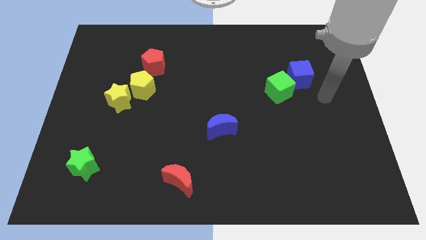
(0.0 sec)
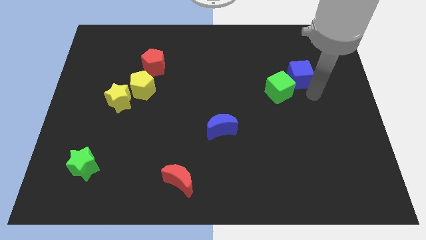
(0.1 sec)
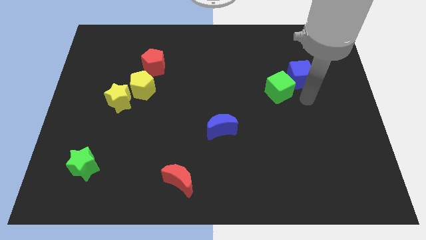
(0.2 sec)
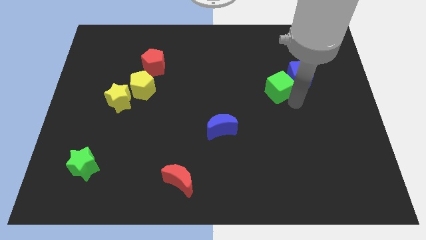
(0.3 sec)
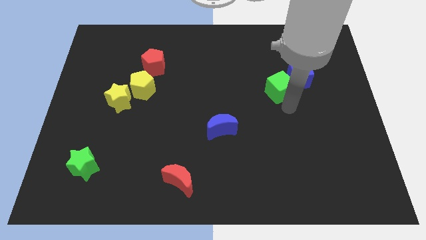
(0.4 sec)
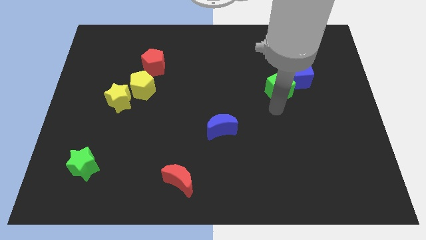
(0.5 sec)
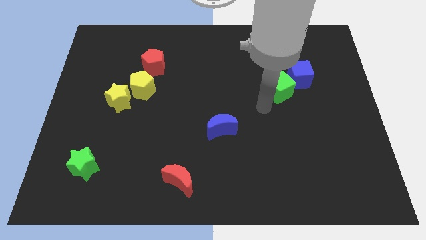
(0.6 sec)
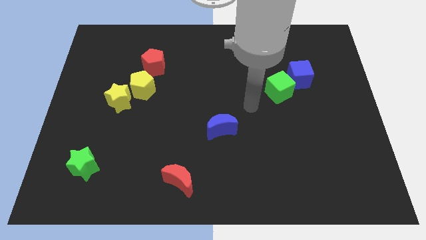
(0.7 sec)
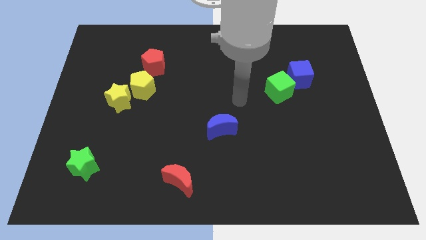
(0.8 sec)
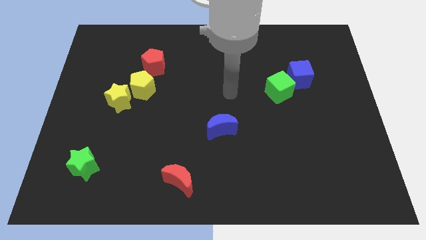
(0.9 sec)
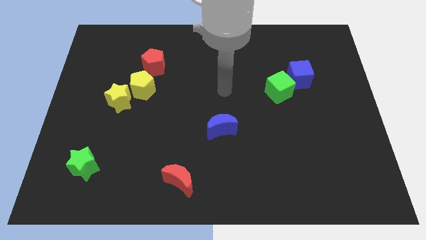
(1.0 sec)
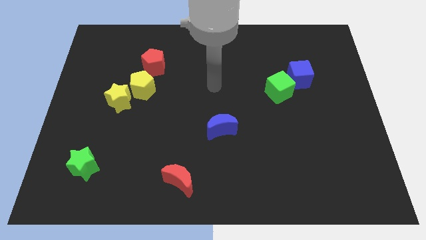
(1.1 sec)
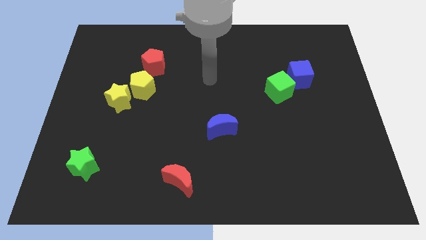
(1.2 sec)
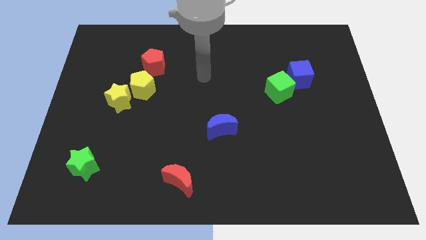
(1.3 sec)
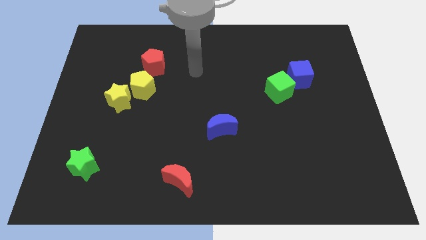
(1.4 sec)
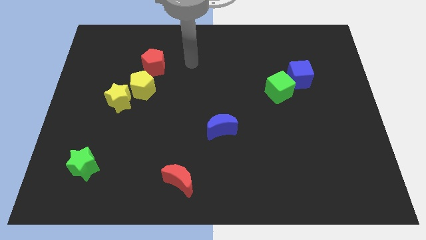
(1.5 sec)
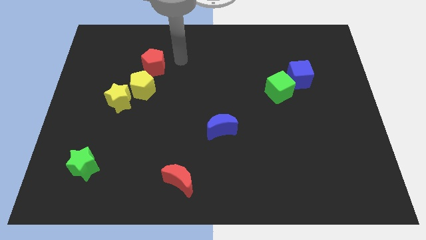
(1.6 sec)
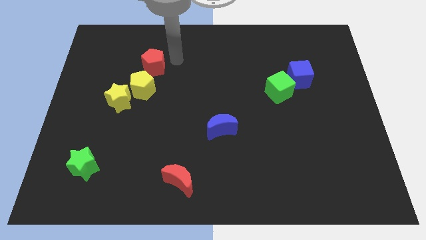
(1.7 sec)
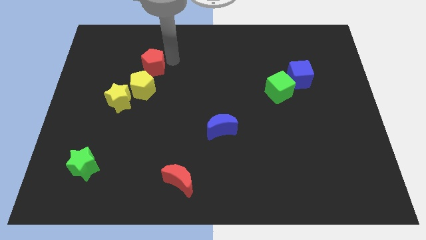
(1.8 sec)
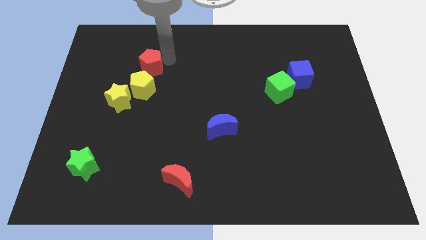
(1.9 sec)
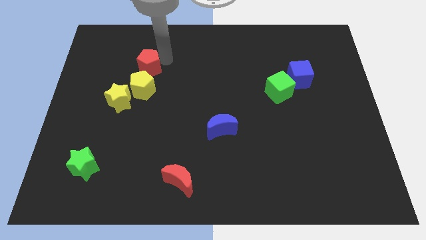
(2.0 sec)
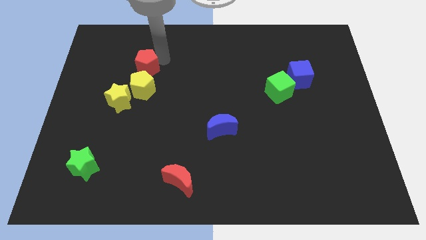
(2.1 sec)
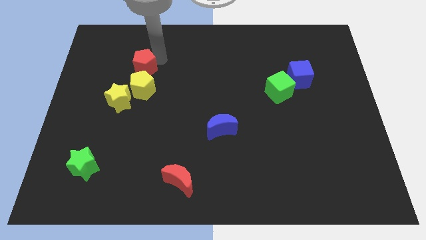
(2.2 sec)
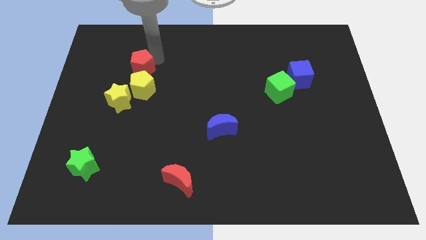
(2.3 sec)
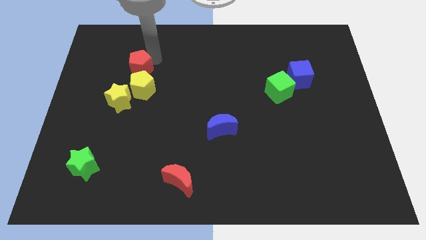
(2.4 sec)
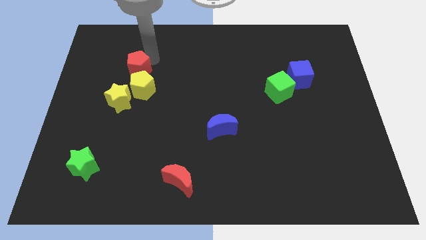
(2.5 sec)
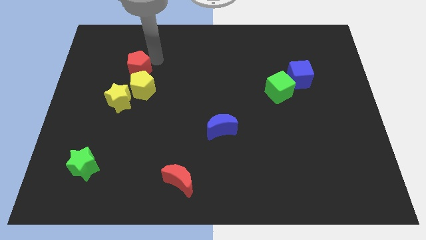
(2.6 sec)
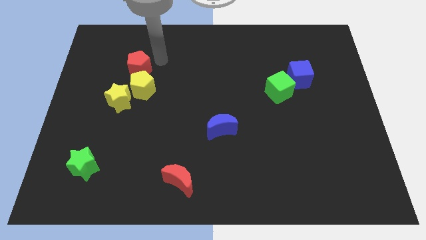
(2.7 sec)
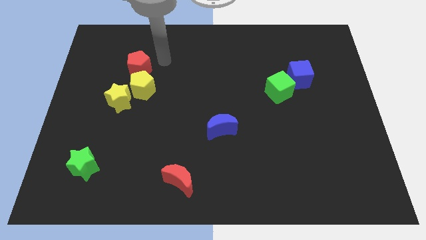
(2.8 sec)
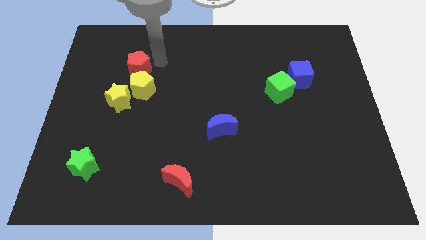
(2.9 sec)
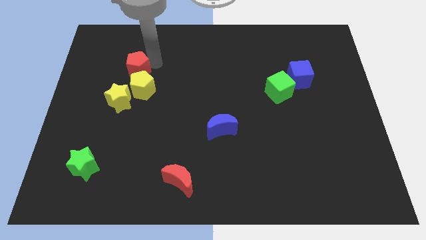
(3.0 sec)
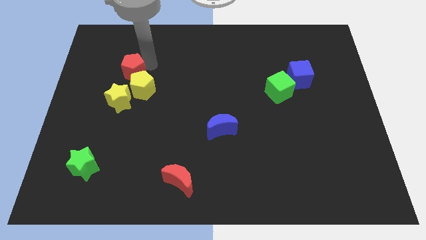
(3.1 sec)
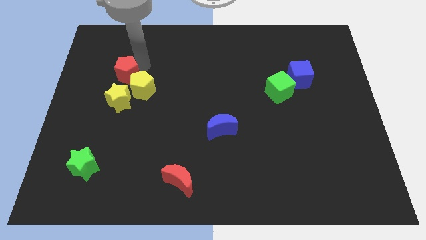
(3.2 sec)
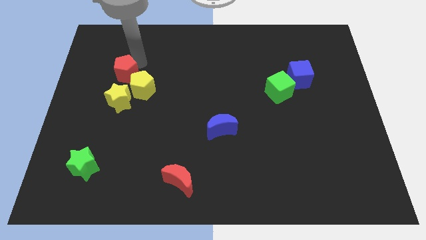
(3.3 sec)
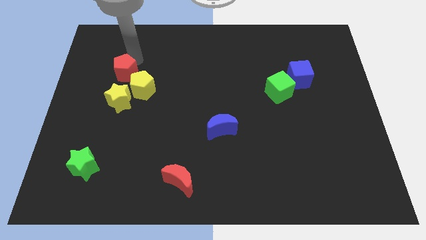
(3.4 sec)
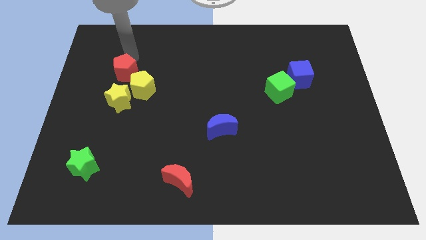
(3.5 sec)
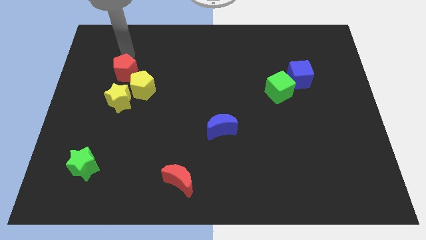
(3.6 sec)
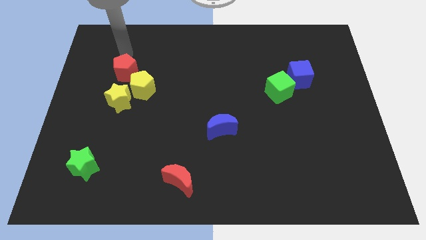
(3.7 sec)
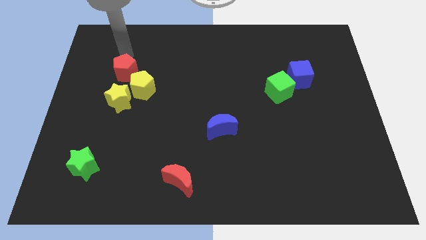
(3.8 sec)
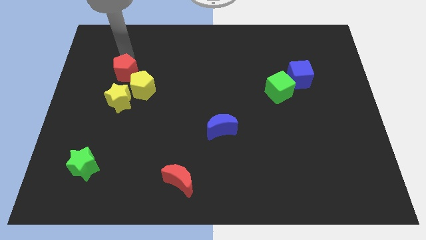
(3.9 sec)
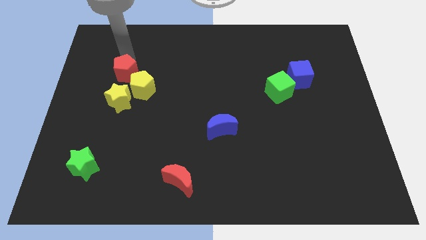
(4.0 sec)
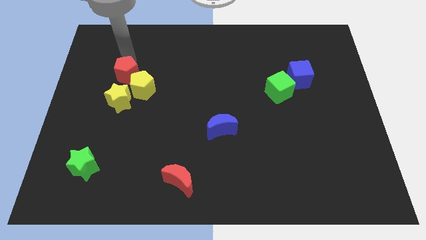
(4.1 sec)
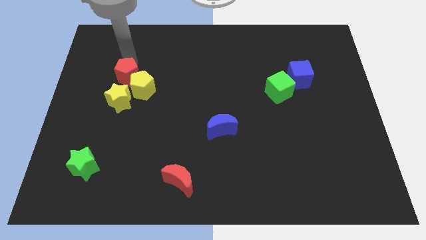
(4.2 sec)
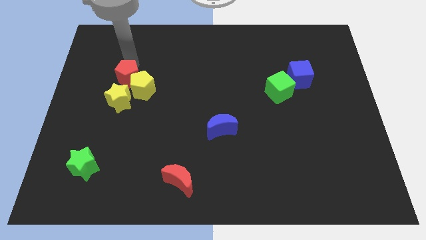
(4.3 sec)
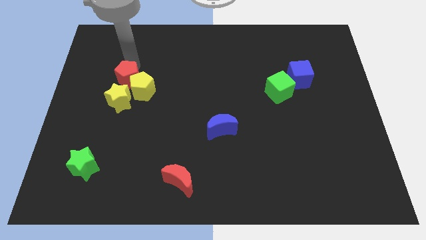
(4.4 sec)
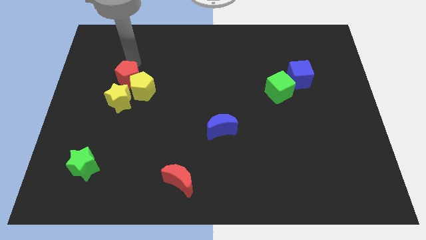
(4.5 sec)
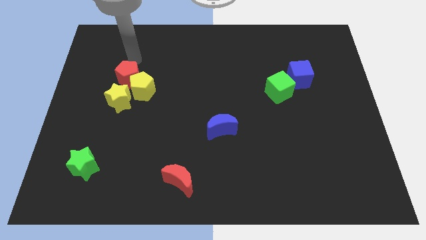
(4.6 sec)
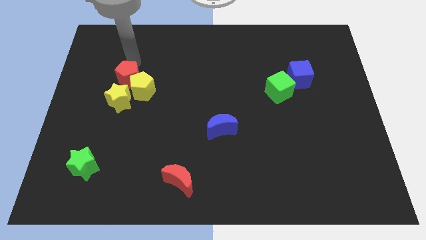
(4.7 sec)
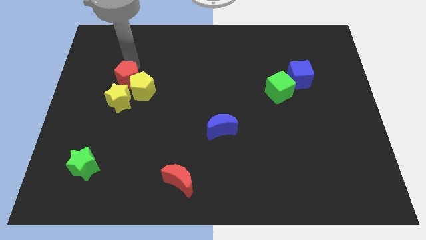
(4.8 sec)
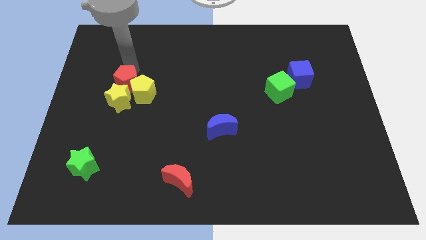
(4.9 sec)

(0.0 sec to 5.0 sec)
move the red pentagon close to the yellow star

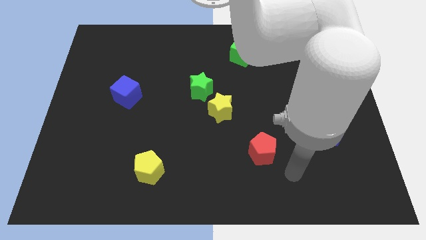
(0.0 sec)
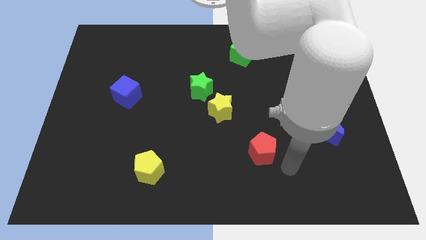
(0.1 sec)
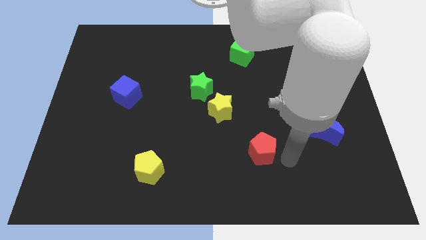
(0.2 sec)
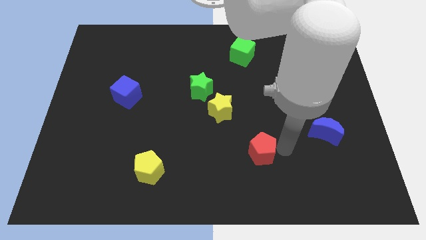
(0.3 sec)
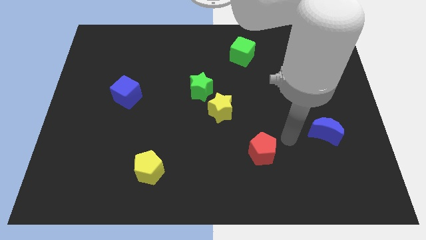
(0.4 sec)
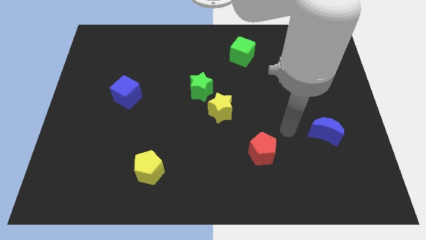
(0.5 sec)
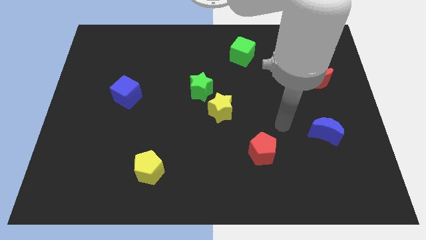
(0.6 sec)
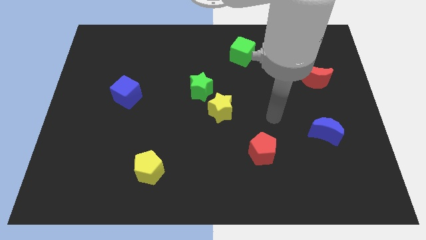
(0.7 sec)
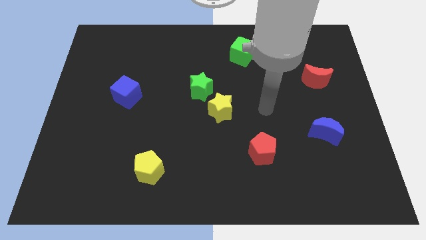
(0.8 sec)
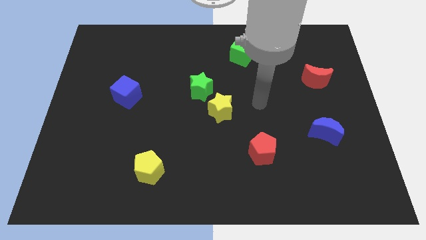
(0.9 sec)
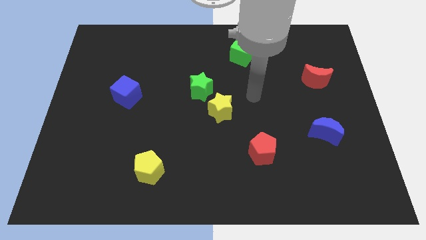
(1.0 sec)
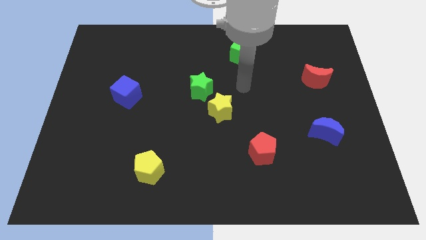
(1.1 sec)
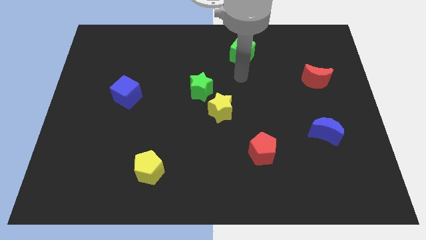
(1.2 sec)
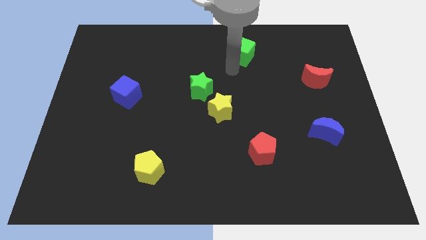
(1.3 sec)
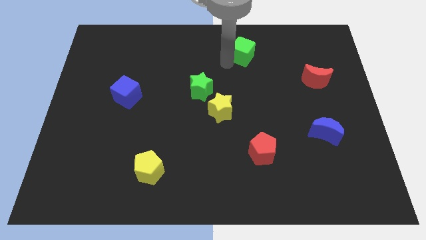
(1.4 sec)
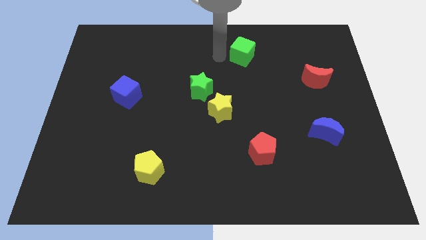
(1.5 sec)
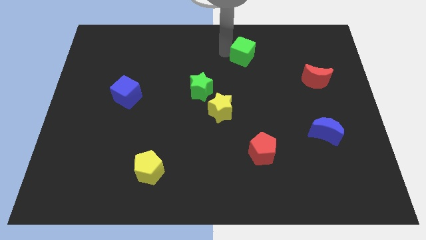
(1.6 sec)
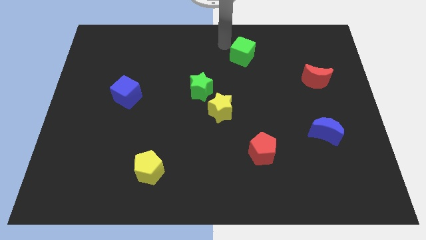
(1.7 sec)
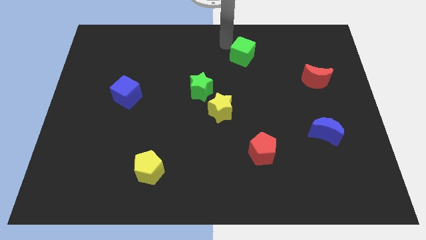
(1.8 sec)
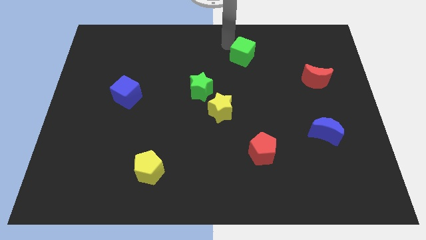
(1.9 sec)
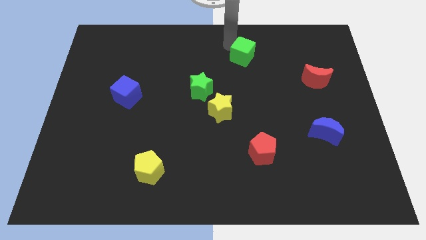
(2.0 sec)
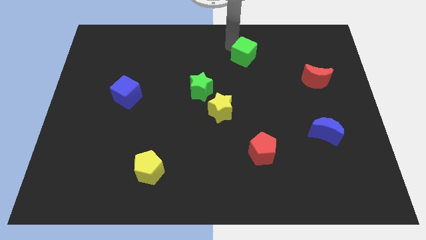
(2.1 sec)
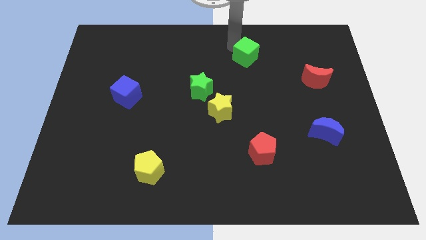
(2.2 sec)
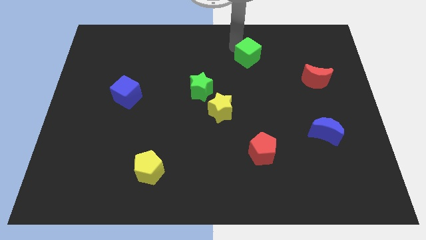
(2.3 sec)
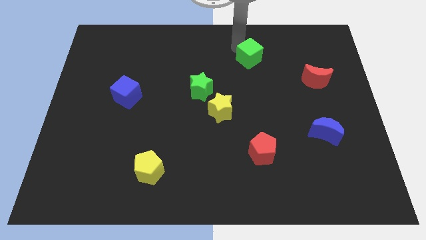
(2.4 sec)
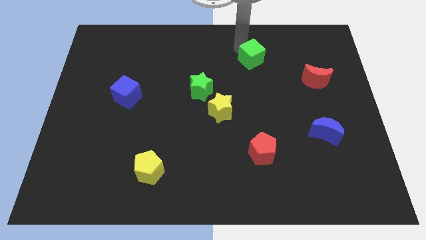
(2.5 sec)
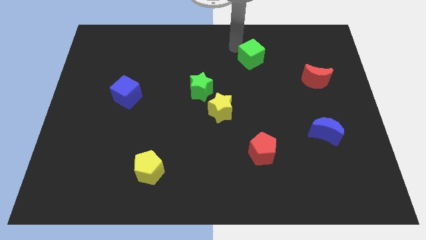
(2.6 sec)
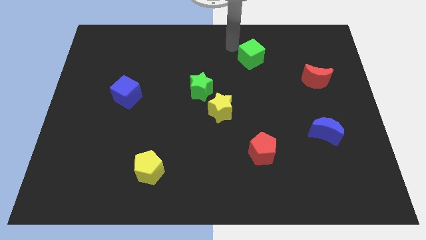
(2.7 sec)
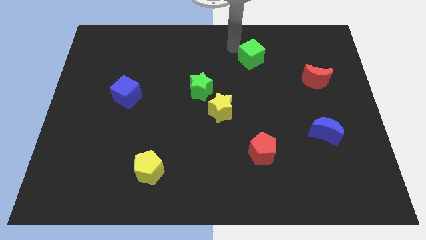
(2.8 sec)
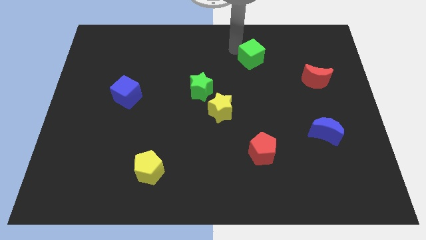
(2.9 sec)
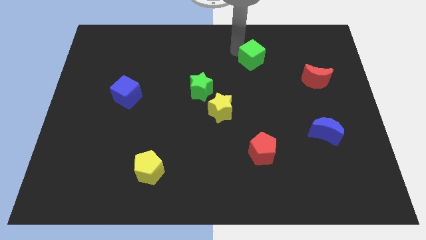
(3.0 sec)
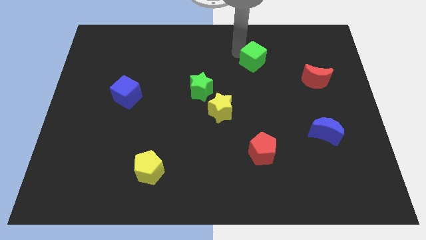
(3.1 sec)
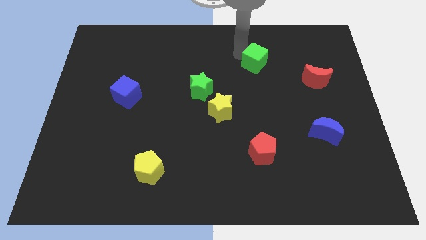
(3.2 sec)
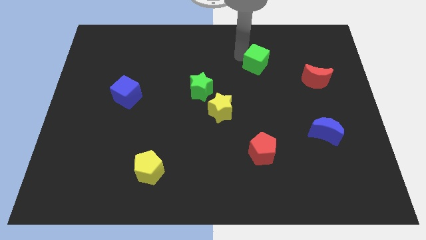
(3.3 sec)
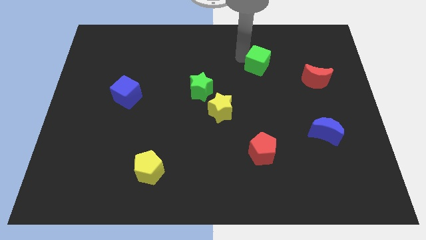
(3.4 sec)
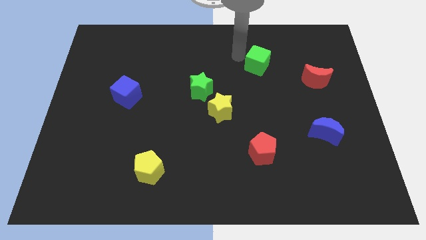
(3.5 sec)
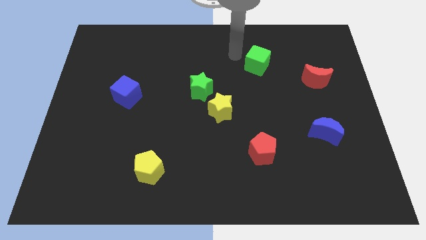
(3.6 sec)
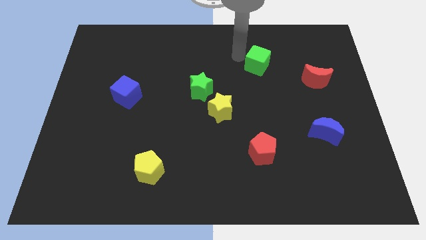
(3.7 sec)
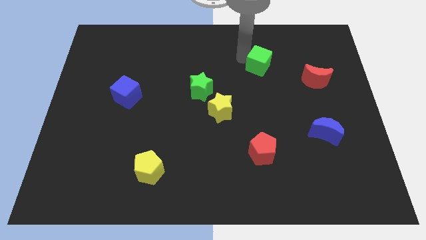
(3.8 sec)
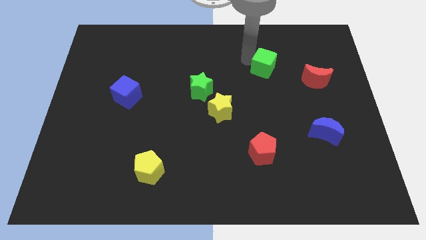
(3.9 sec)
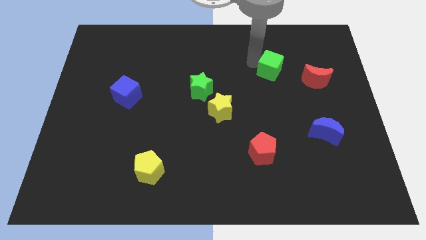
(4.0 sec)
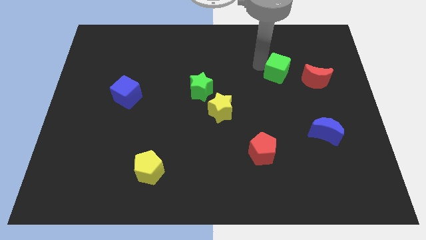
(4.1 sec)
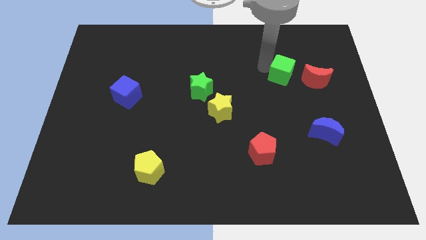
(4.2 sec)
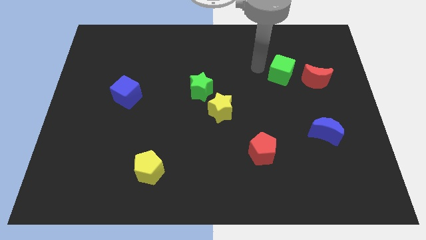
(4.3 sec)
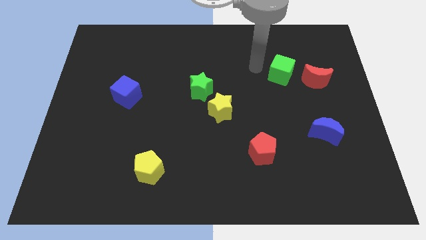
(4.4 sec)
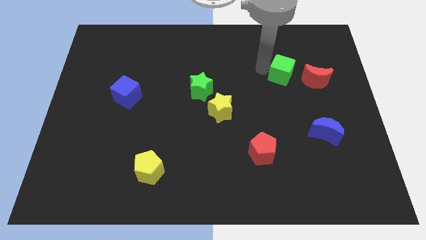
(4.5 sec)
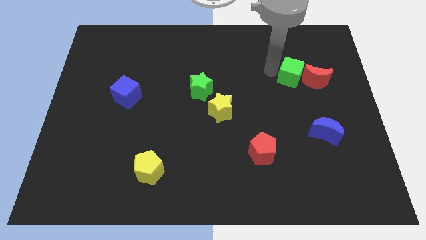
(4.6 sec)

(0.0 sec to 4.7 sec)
slide the green cube towards the red moon
